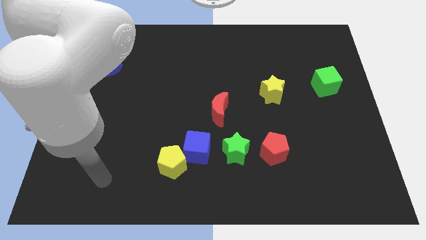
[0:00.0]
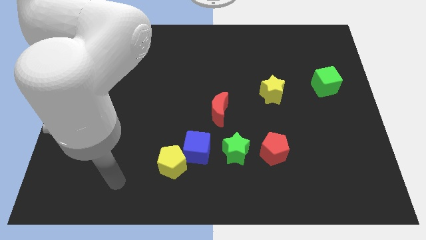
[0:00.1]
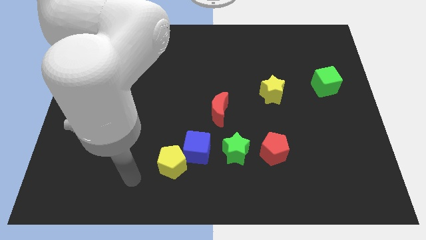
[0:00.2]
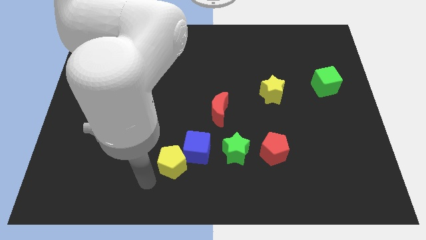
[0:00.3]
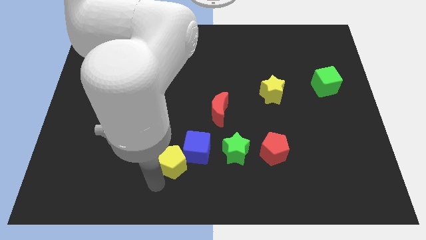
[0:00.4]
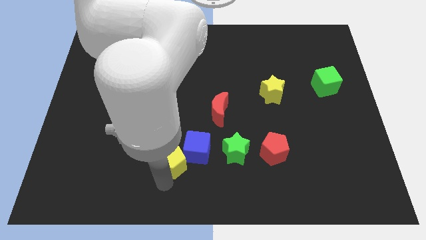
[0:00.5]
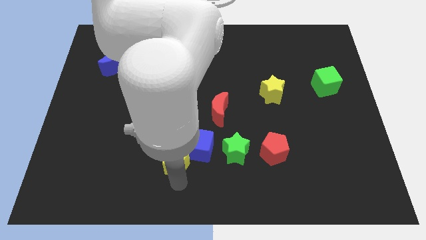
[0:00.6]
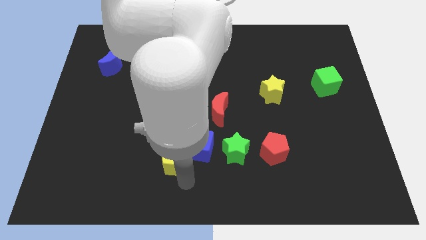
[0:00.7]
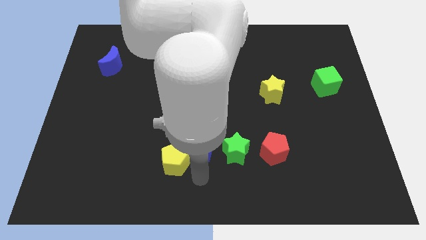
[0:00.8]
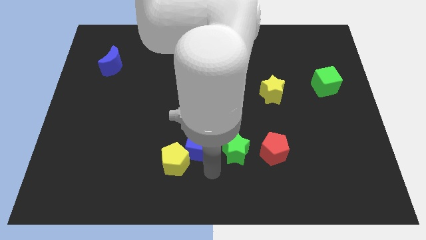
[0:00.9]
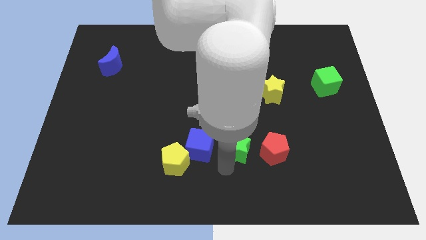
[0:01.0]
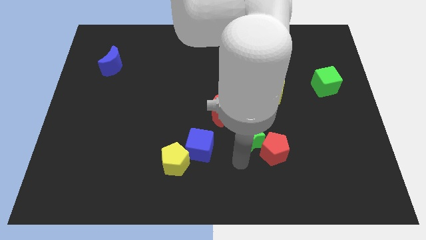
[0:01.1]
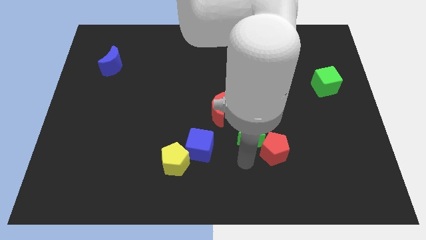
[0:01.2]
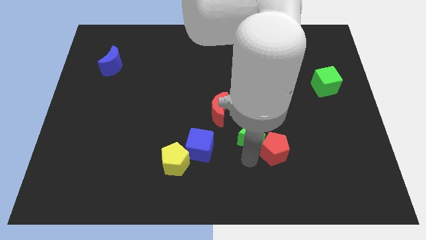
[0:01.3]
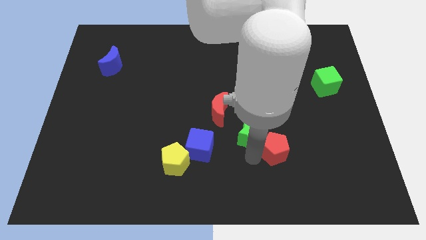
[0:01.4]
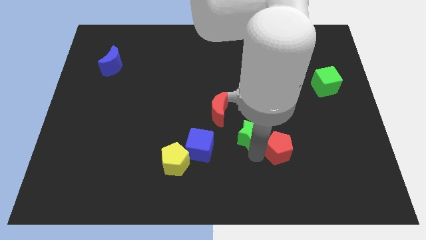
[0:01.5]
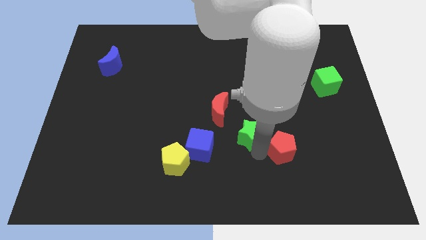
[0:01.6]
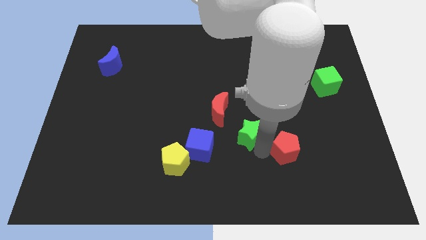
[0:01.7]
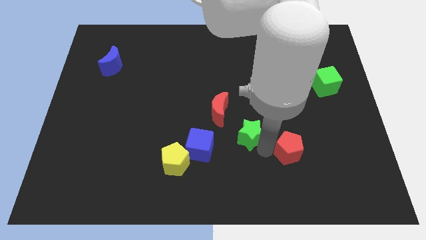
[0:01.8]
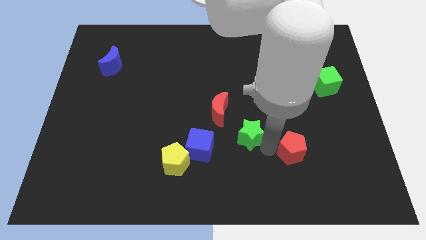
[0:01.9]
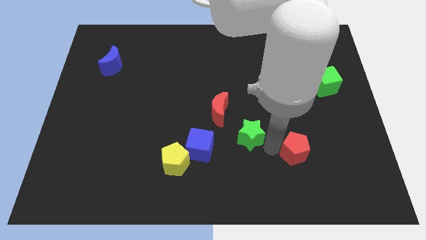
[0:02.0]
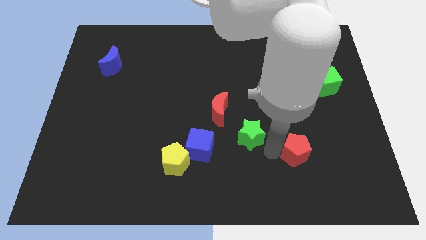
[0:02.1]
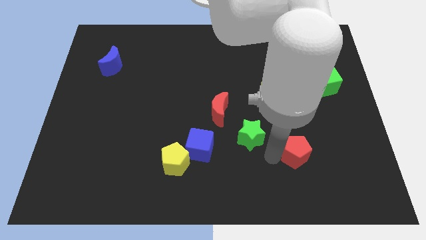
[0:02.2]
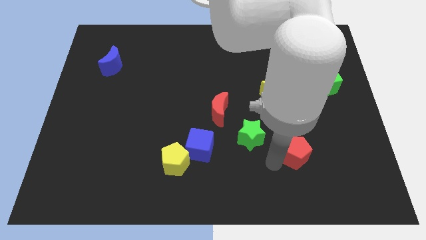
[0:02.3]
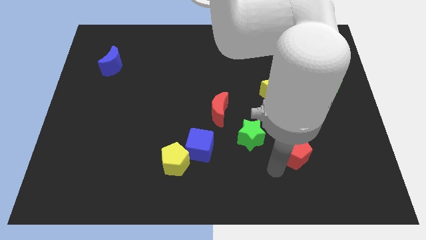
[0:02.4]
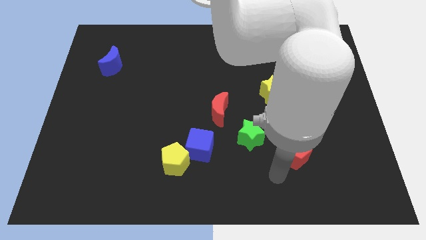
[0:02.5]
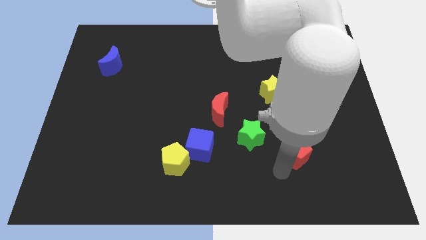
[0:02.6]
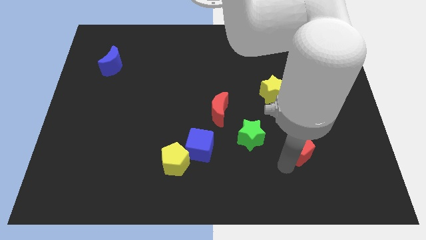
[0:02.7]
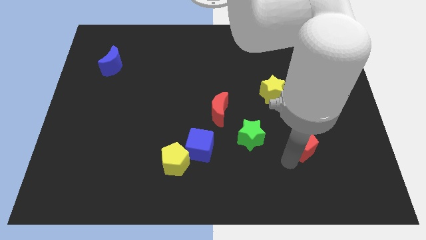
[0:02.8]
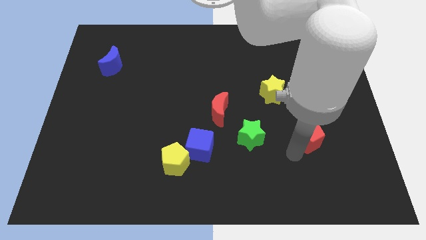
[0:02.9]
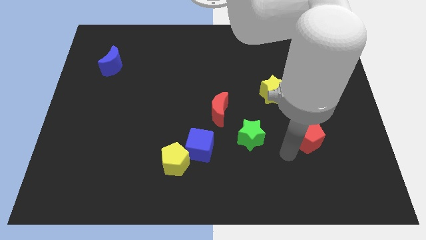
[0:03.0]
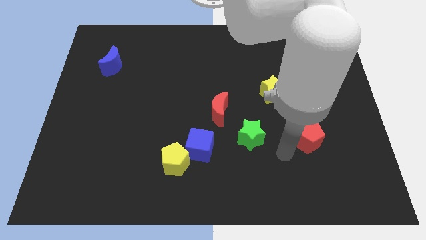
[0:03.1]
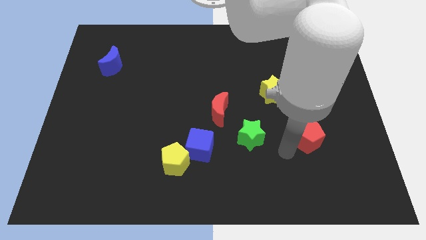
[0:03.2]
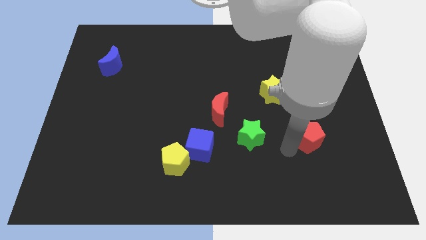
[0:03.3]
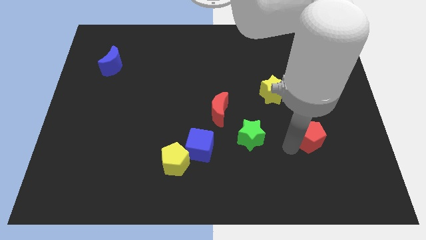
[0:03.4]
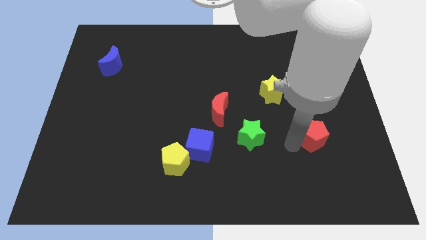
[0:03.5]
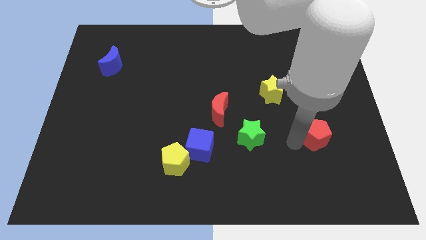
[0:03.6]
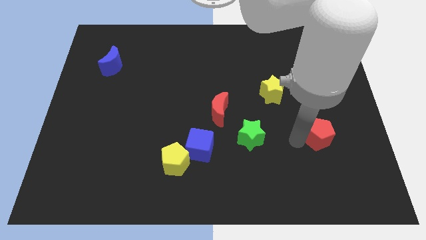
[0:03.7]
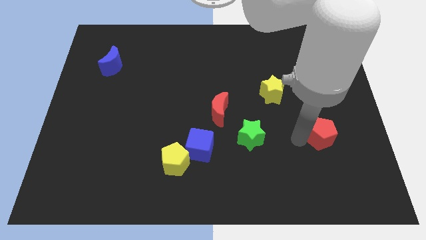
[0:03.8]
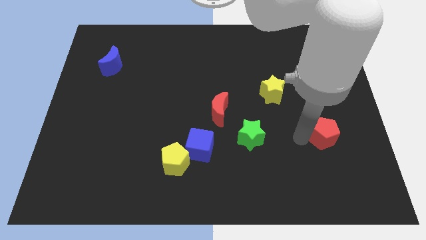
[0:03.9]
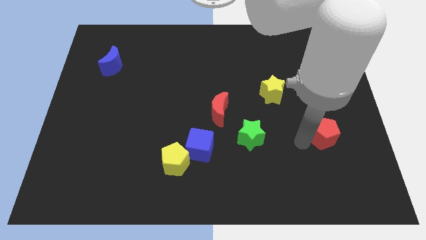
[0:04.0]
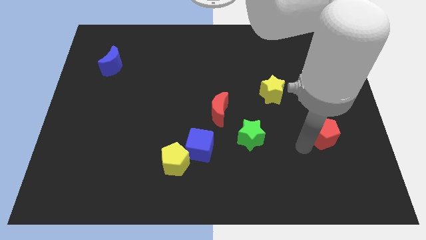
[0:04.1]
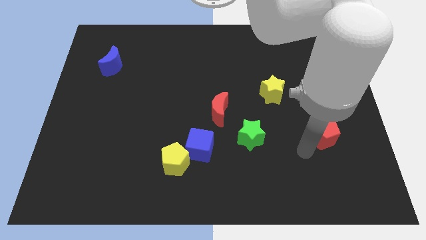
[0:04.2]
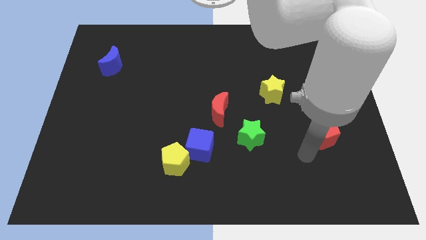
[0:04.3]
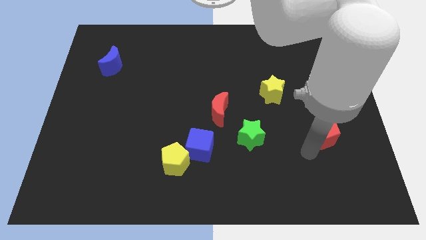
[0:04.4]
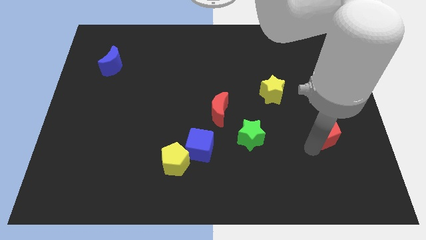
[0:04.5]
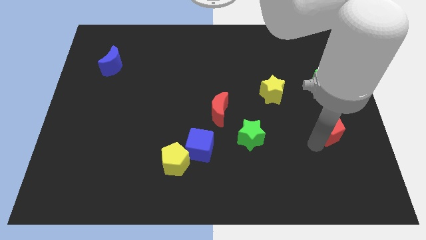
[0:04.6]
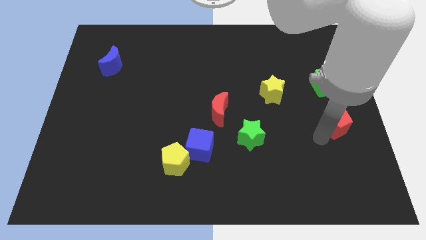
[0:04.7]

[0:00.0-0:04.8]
push the red pentagon to the center right

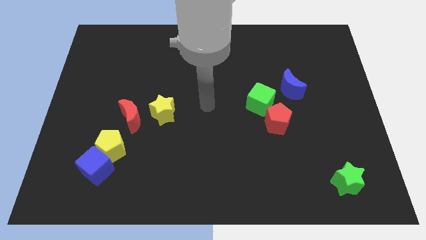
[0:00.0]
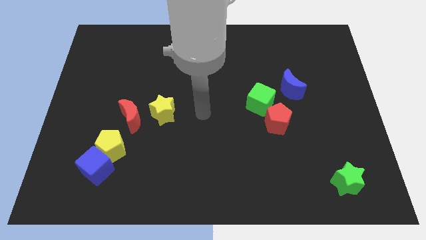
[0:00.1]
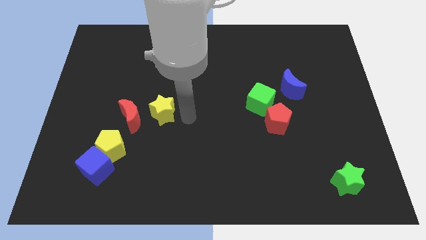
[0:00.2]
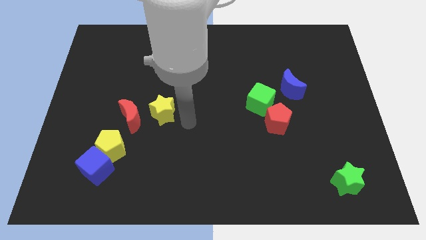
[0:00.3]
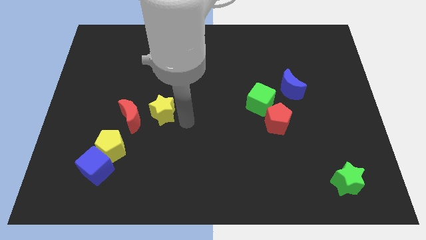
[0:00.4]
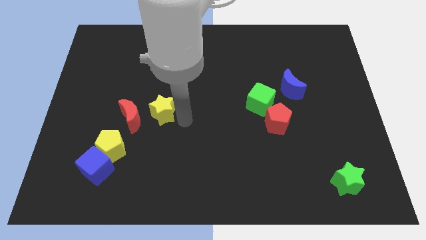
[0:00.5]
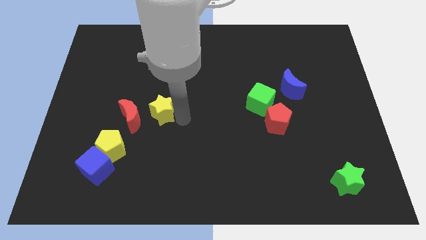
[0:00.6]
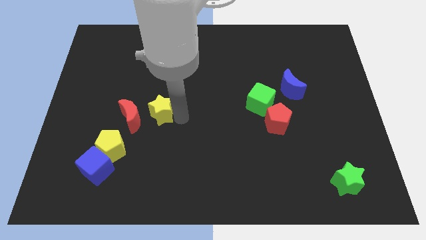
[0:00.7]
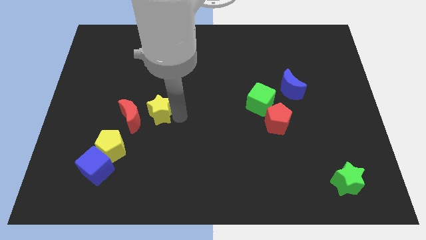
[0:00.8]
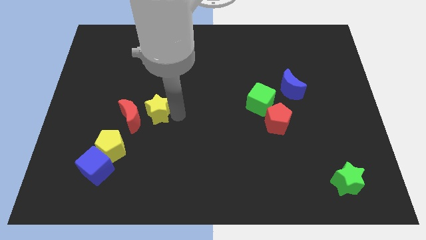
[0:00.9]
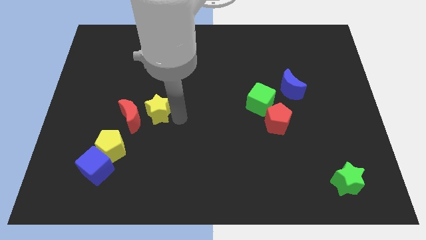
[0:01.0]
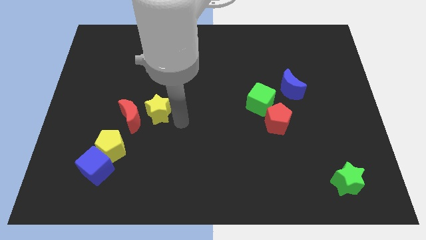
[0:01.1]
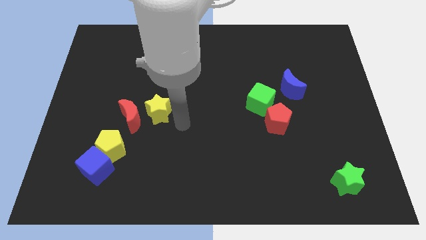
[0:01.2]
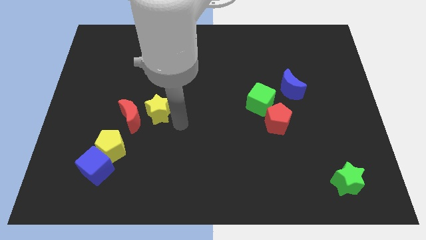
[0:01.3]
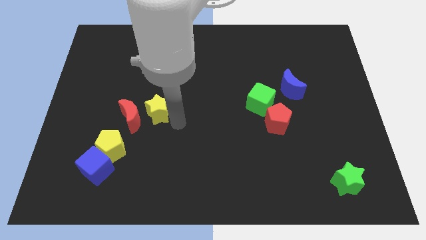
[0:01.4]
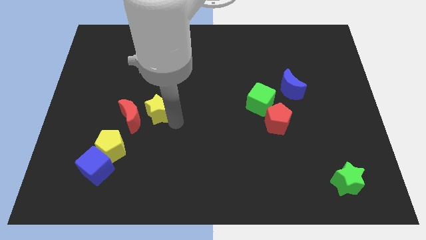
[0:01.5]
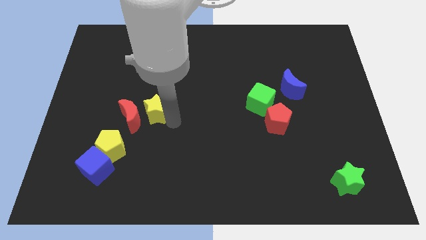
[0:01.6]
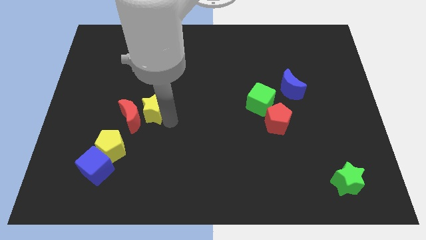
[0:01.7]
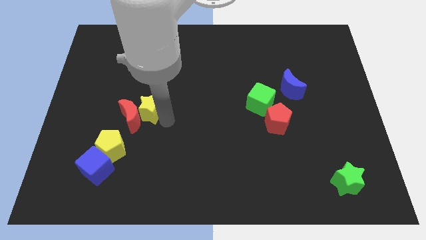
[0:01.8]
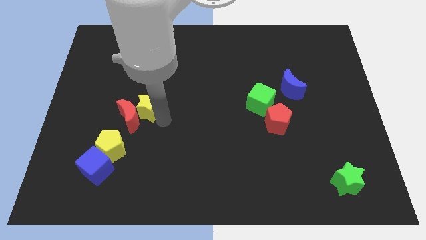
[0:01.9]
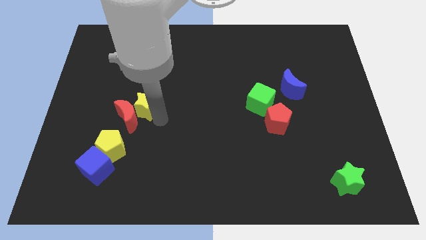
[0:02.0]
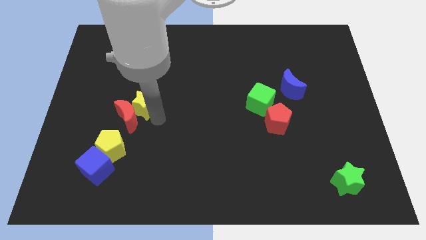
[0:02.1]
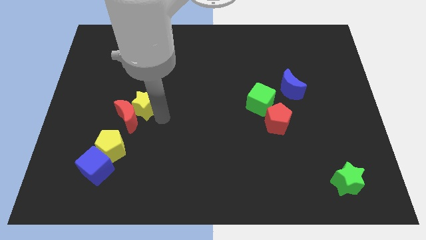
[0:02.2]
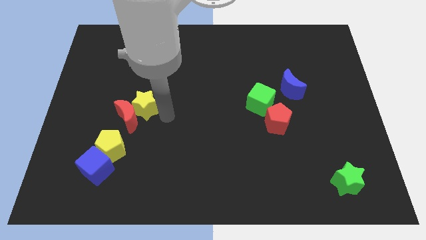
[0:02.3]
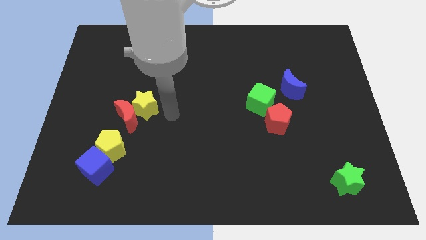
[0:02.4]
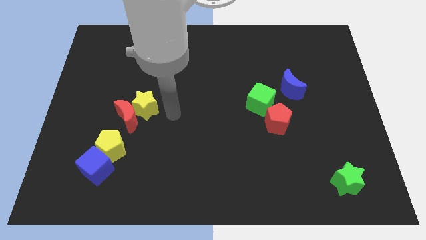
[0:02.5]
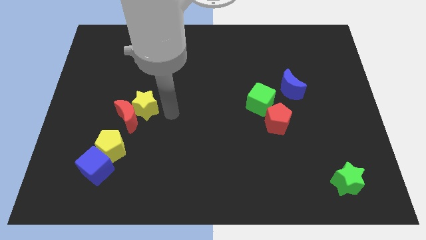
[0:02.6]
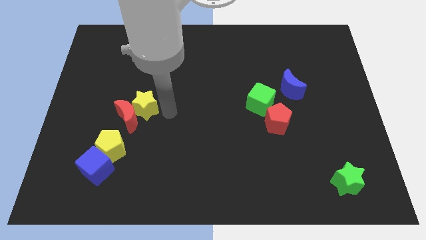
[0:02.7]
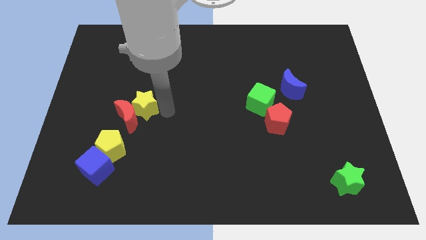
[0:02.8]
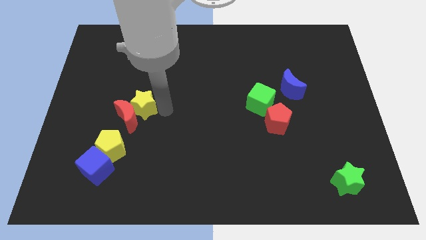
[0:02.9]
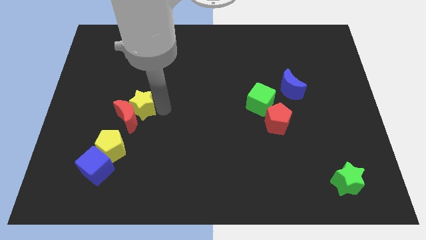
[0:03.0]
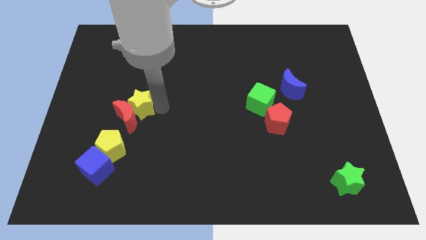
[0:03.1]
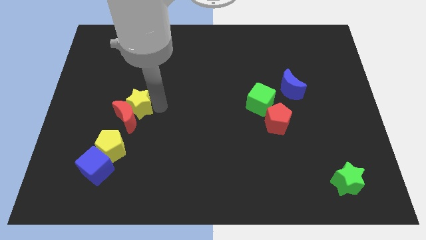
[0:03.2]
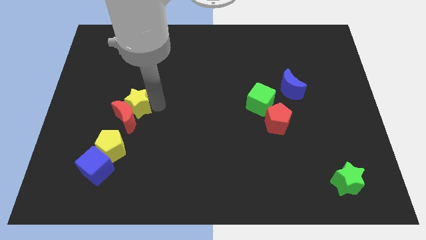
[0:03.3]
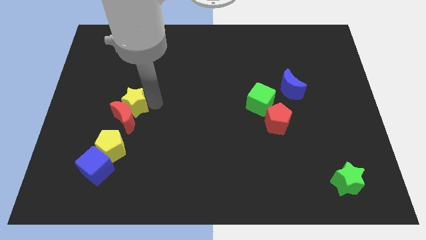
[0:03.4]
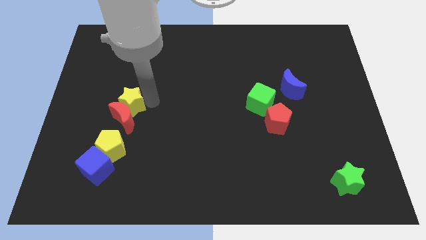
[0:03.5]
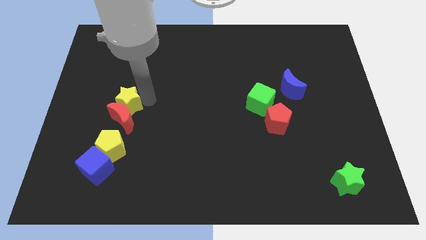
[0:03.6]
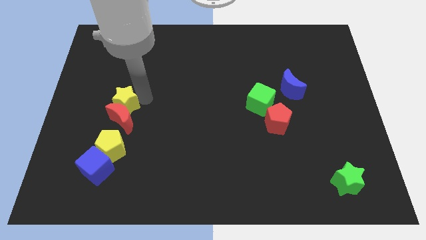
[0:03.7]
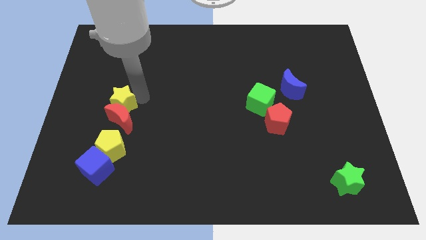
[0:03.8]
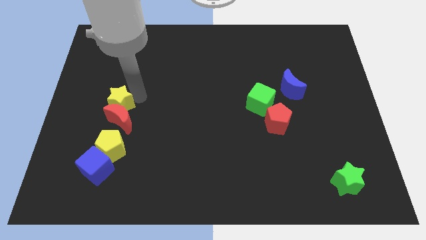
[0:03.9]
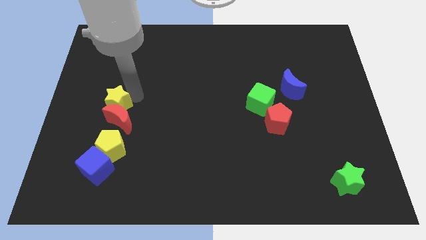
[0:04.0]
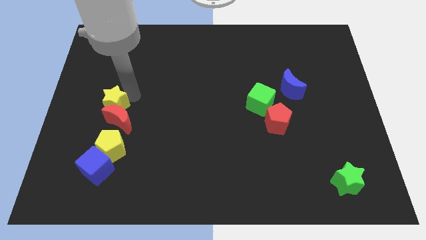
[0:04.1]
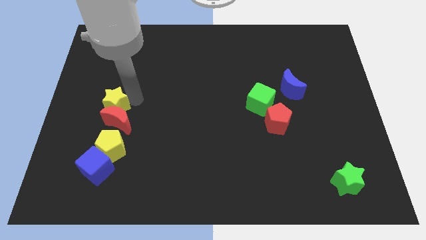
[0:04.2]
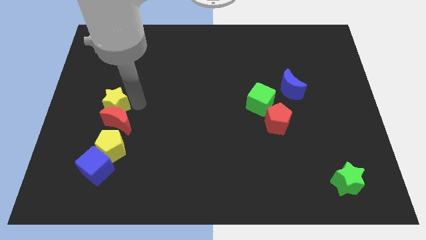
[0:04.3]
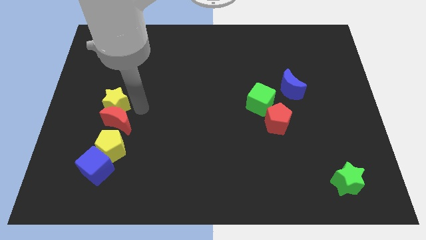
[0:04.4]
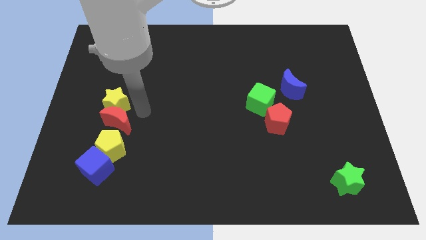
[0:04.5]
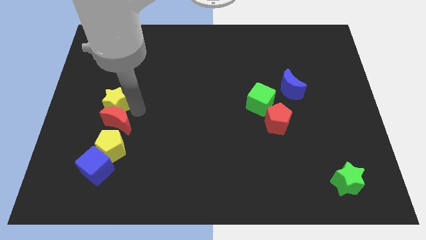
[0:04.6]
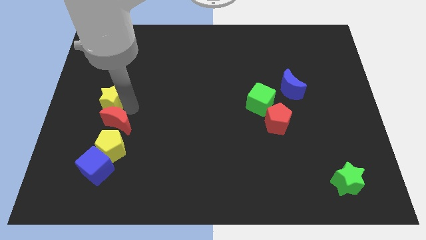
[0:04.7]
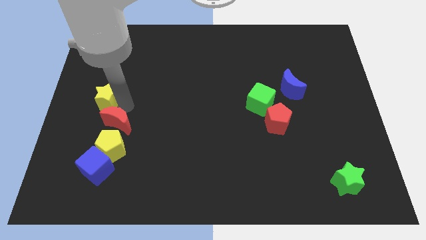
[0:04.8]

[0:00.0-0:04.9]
slide the yellow star to the center left
